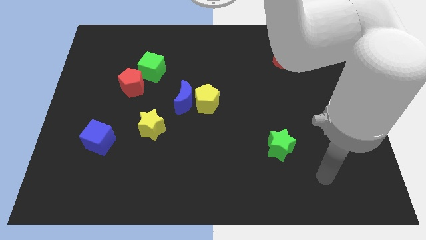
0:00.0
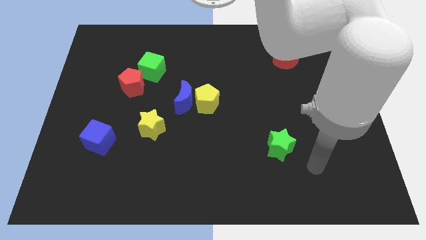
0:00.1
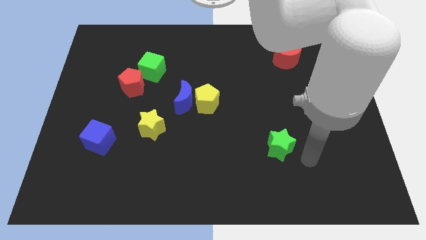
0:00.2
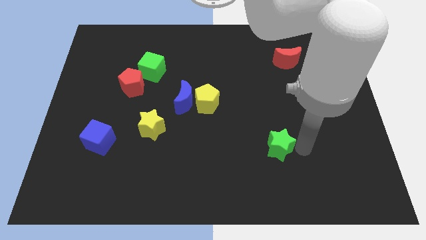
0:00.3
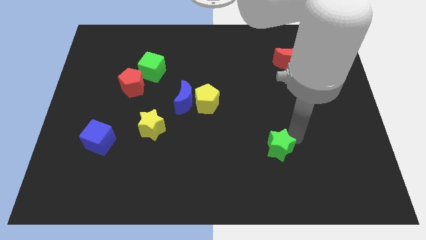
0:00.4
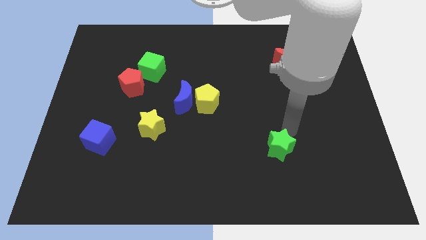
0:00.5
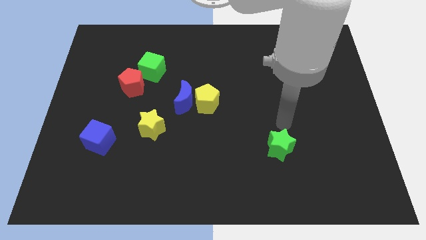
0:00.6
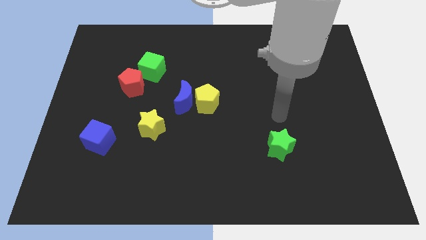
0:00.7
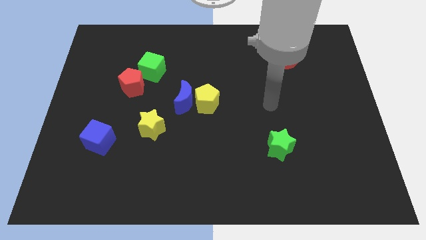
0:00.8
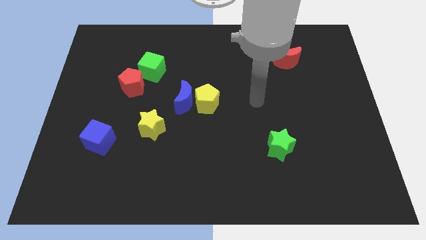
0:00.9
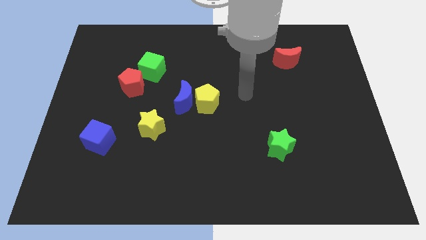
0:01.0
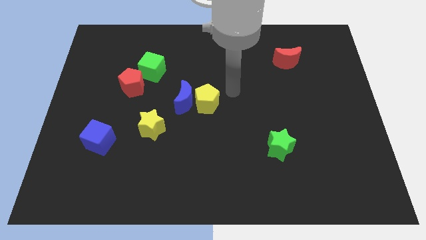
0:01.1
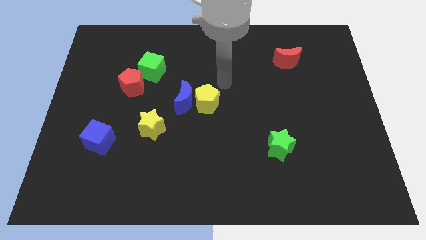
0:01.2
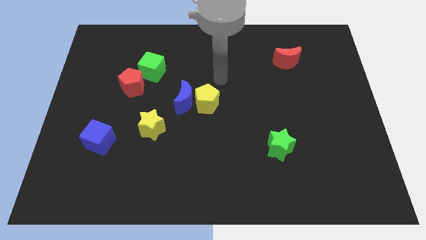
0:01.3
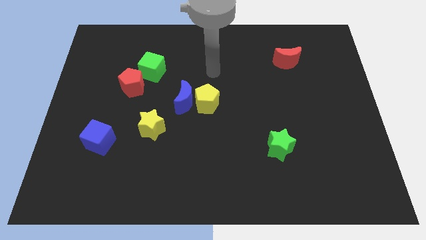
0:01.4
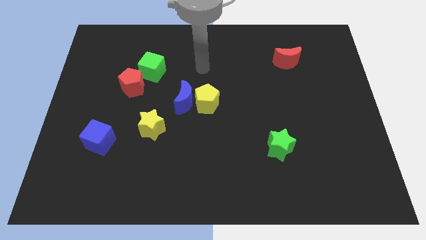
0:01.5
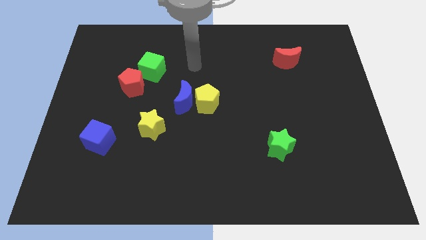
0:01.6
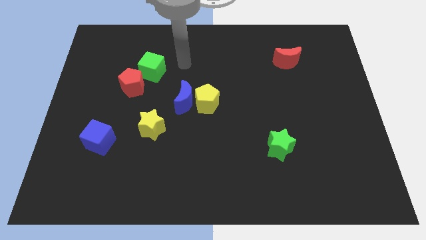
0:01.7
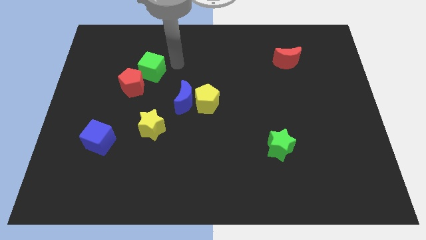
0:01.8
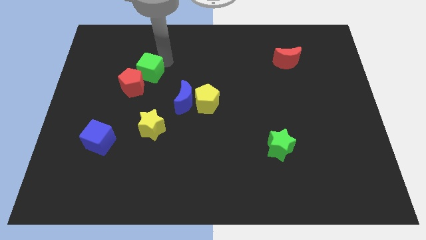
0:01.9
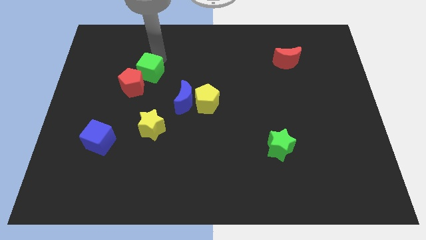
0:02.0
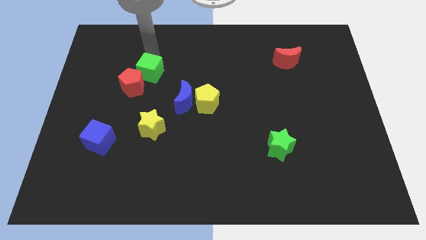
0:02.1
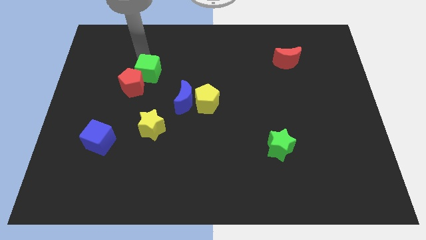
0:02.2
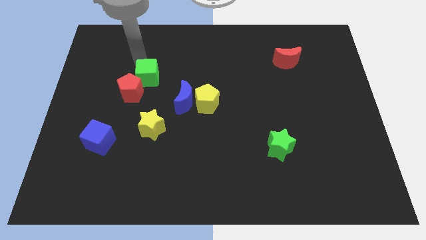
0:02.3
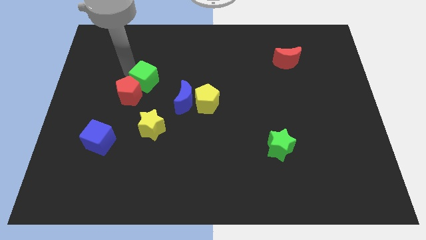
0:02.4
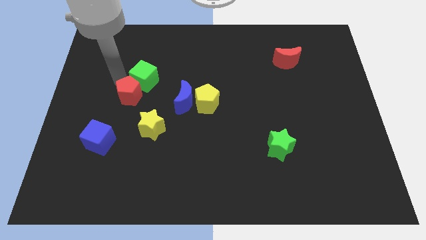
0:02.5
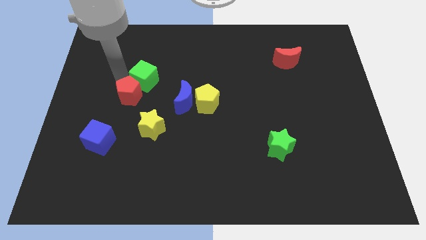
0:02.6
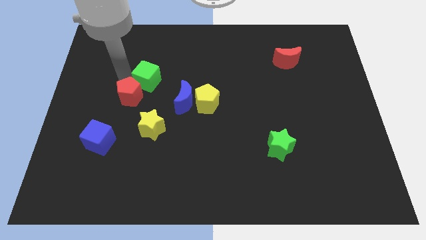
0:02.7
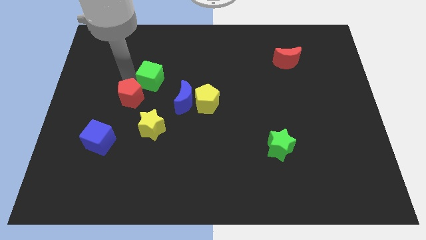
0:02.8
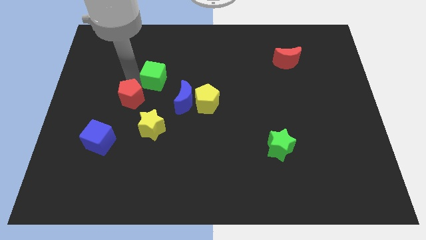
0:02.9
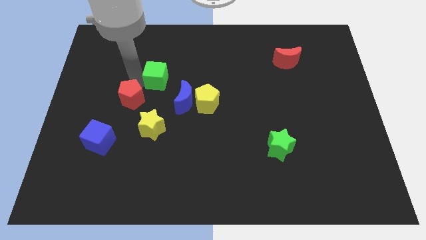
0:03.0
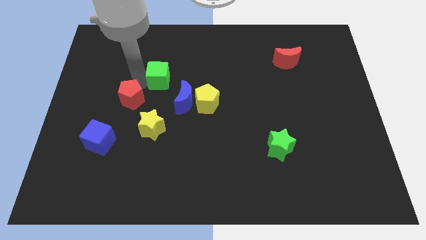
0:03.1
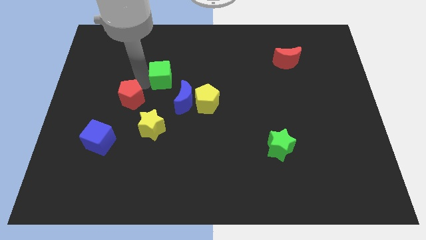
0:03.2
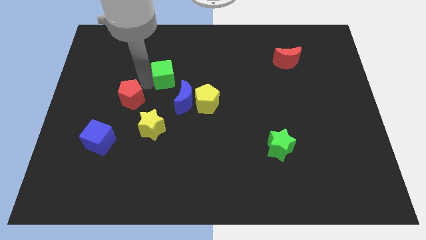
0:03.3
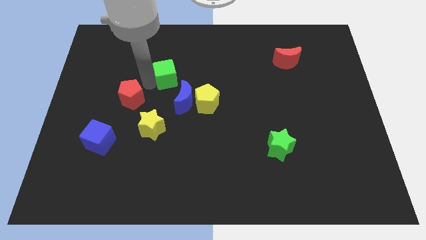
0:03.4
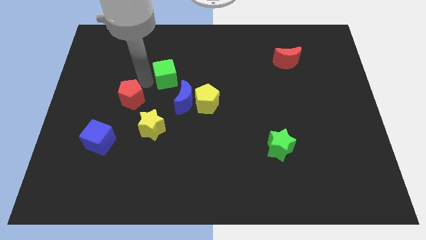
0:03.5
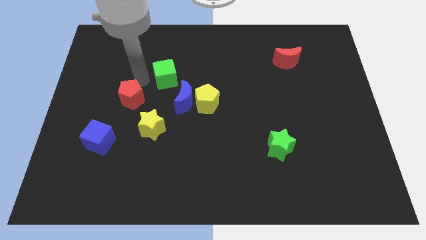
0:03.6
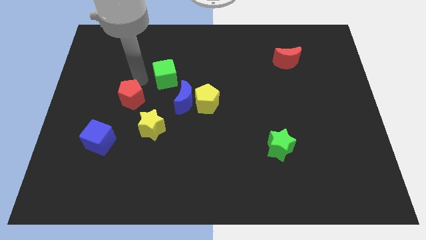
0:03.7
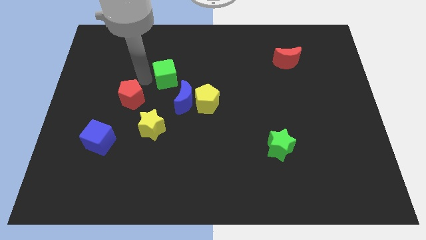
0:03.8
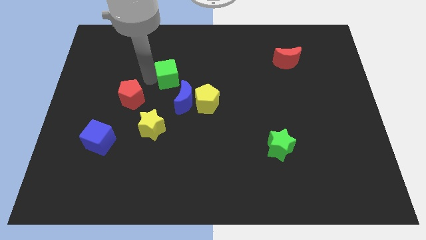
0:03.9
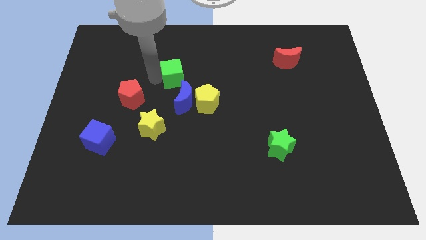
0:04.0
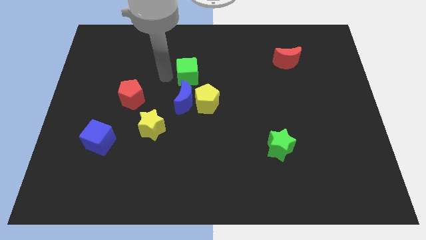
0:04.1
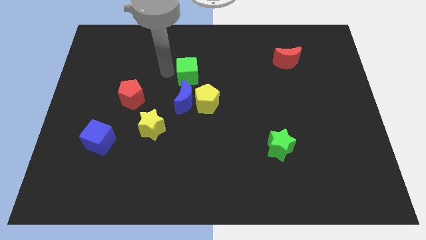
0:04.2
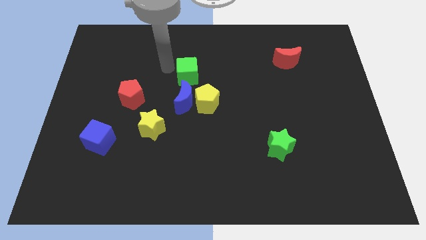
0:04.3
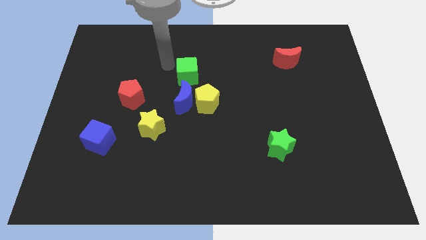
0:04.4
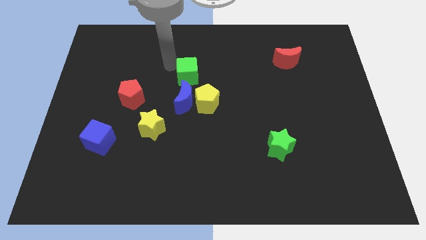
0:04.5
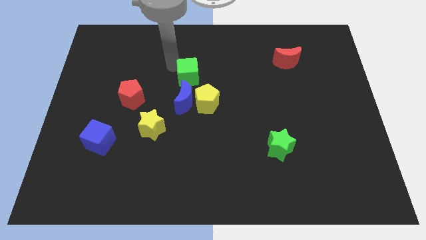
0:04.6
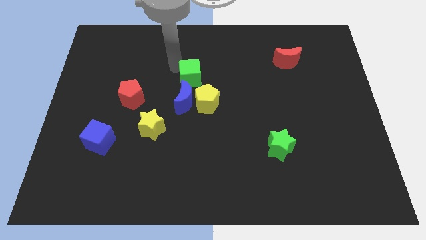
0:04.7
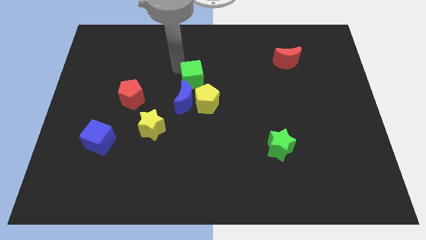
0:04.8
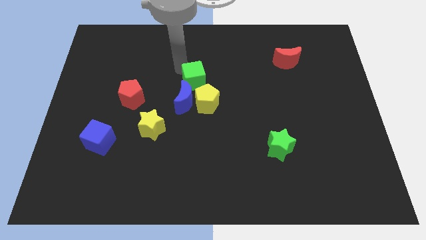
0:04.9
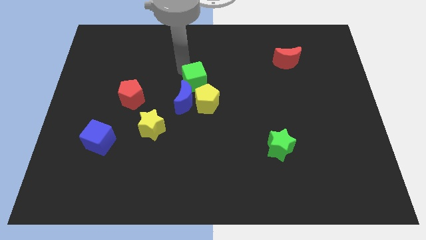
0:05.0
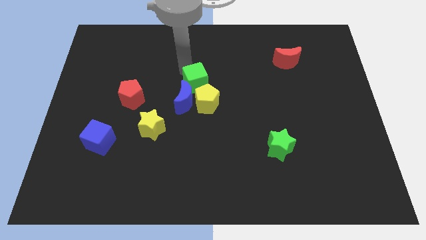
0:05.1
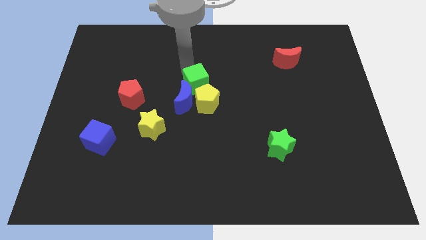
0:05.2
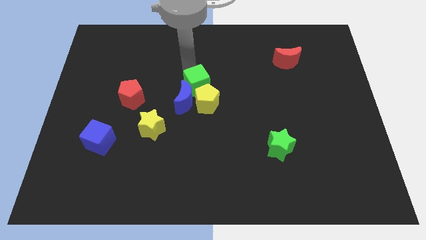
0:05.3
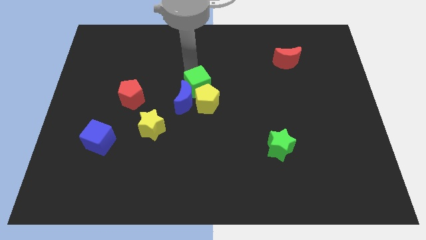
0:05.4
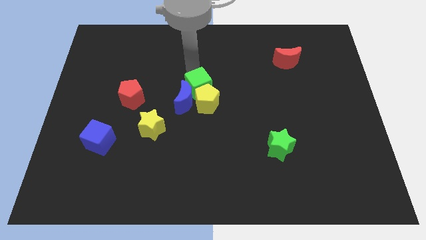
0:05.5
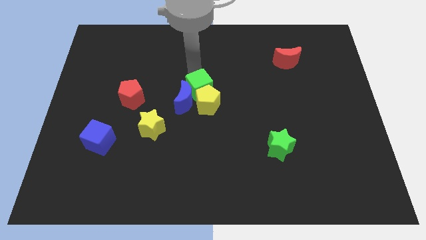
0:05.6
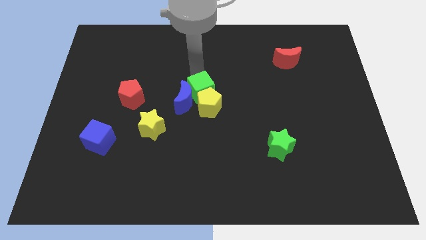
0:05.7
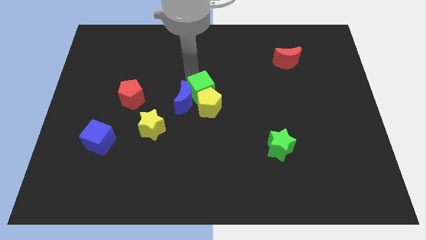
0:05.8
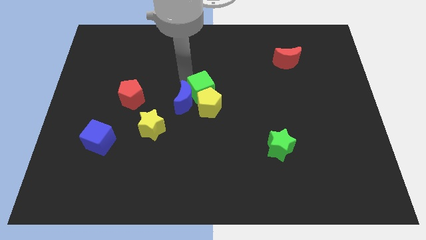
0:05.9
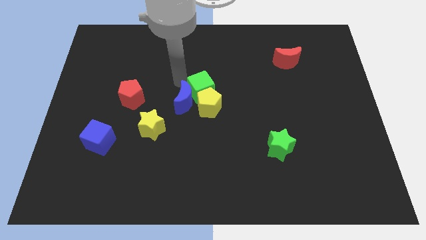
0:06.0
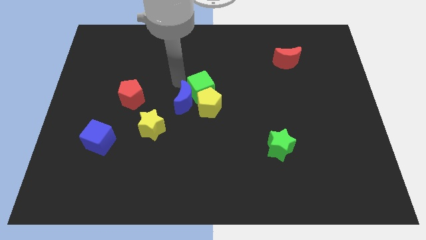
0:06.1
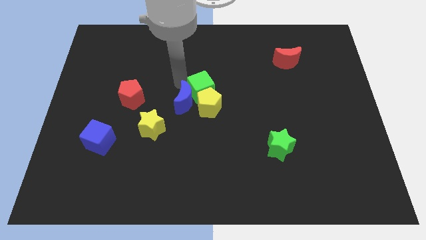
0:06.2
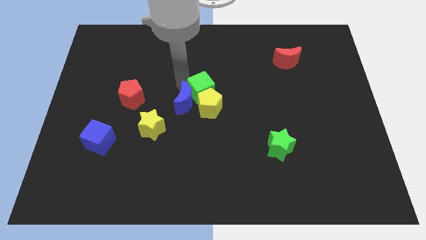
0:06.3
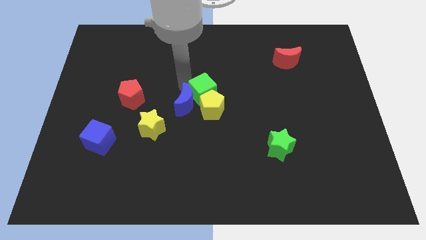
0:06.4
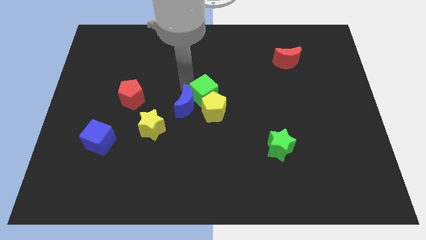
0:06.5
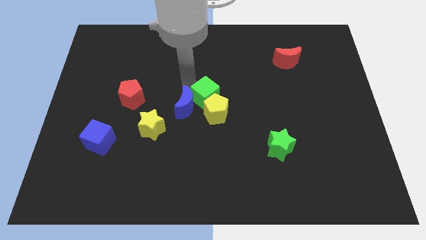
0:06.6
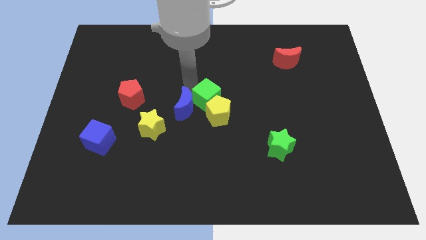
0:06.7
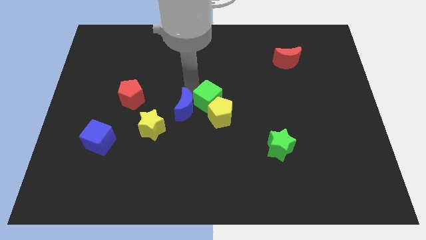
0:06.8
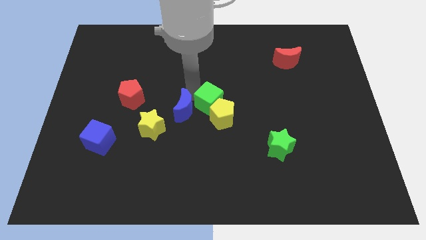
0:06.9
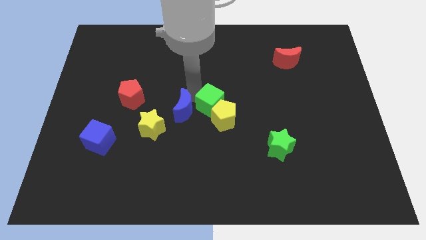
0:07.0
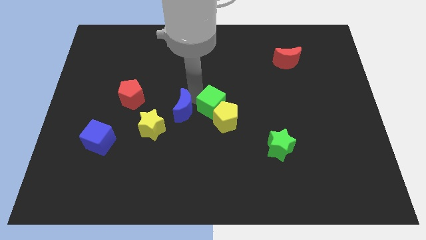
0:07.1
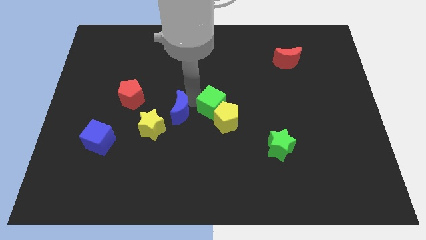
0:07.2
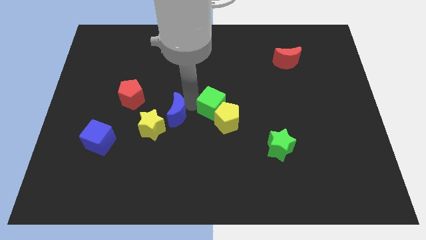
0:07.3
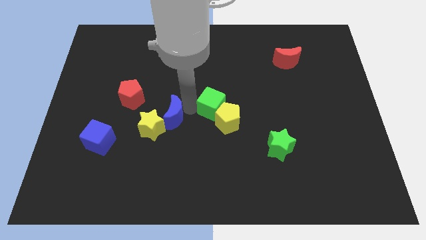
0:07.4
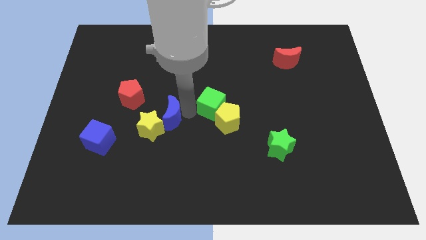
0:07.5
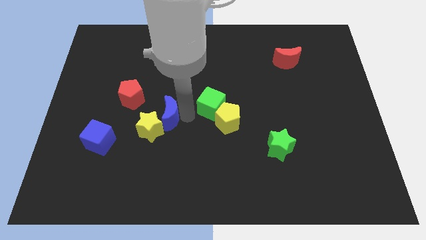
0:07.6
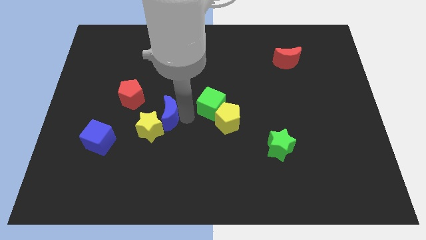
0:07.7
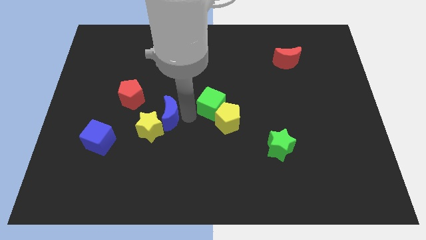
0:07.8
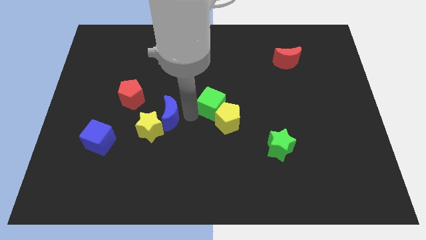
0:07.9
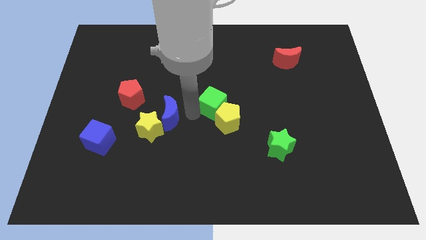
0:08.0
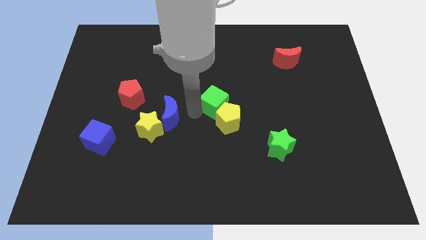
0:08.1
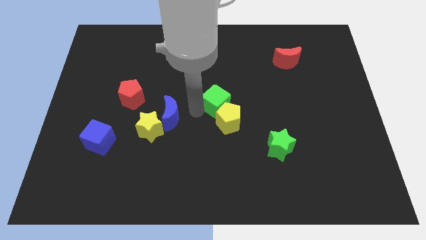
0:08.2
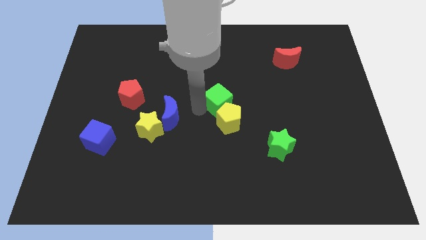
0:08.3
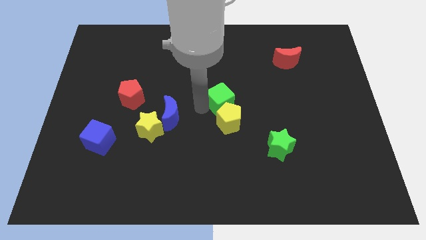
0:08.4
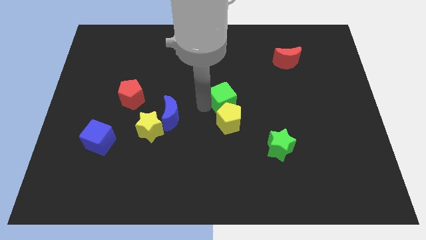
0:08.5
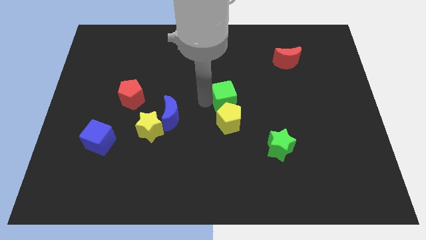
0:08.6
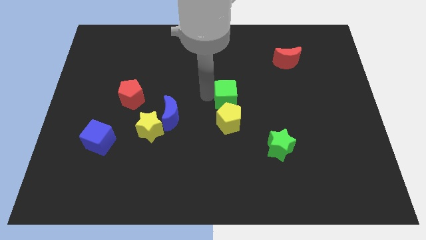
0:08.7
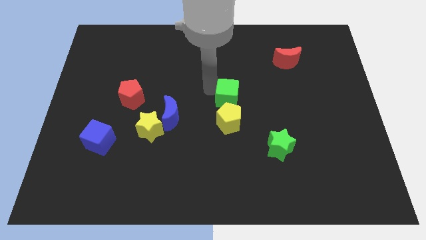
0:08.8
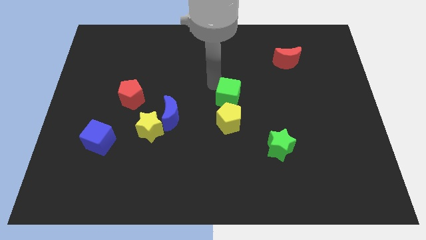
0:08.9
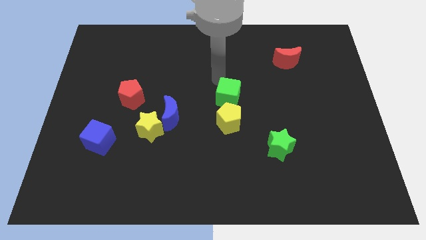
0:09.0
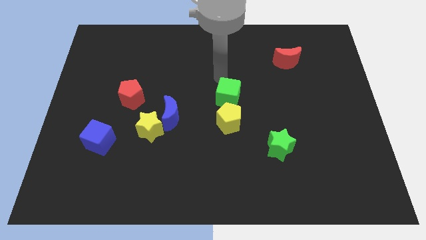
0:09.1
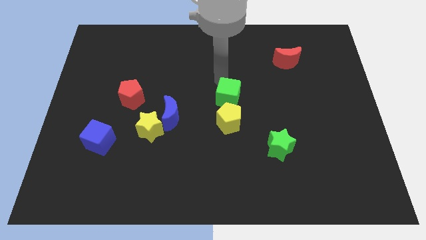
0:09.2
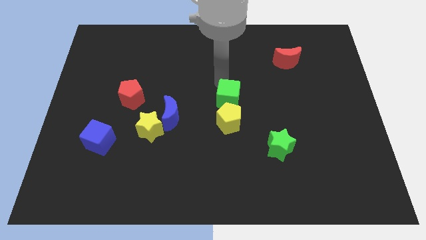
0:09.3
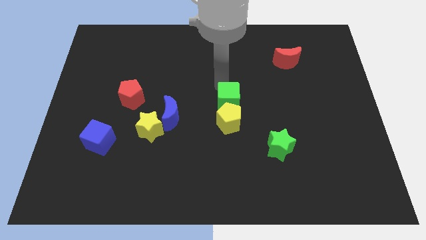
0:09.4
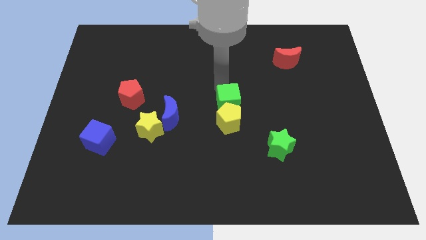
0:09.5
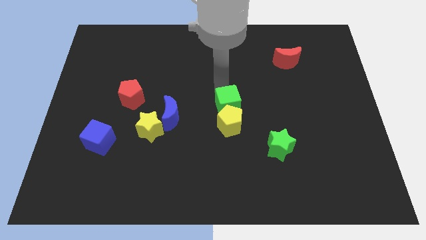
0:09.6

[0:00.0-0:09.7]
move the green cube diagonally down and right
